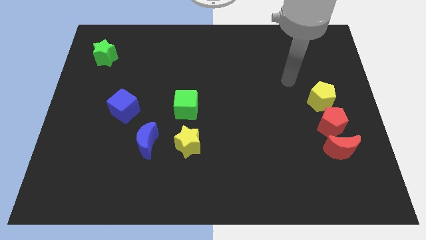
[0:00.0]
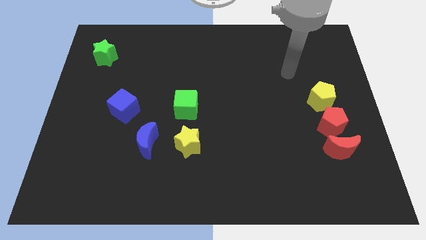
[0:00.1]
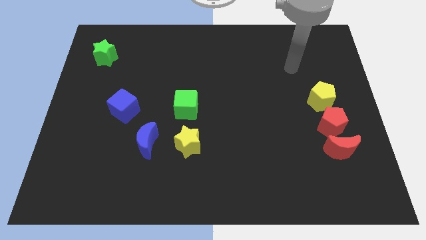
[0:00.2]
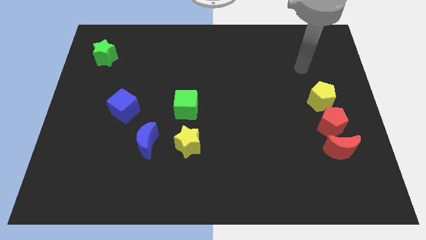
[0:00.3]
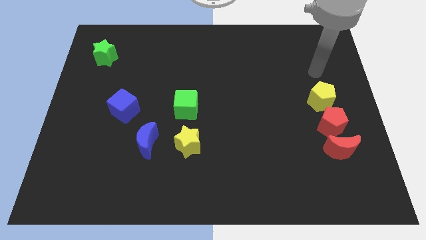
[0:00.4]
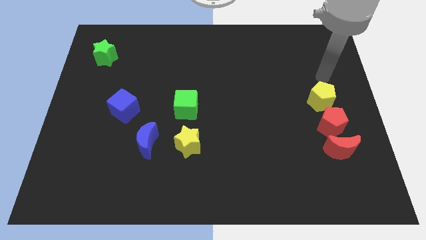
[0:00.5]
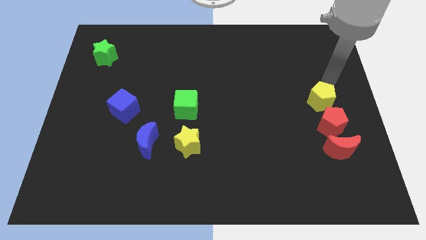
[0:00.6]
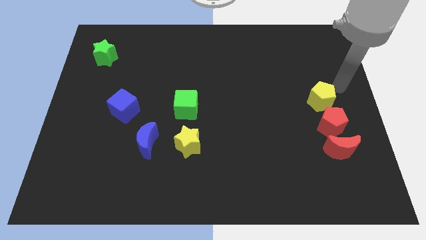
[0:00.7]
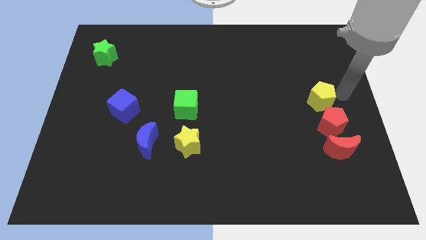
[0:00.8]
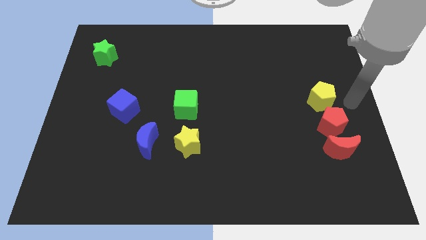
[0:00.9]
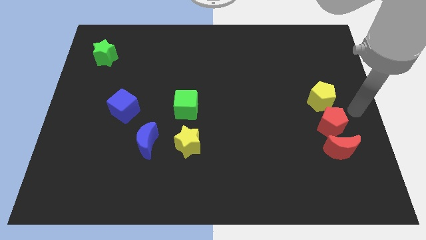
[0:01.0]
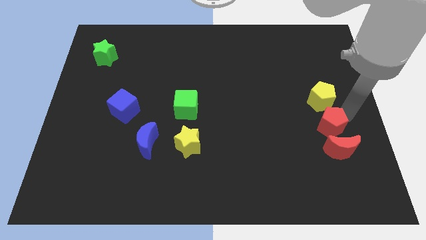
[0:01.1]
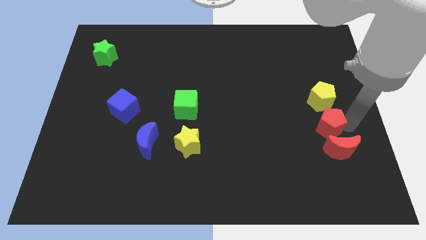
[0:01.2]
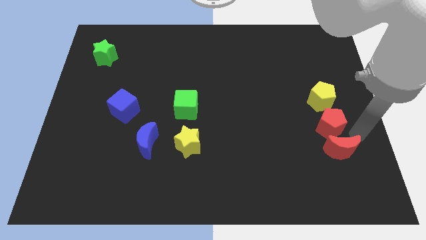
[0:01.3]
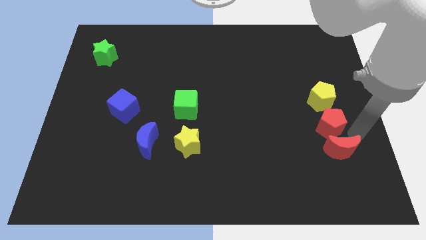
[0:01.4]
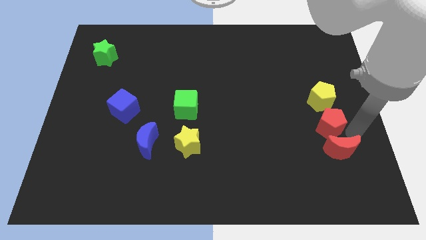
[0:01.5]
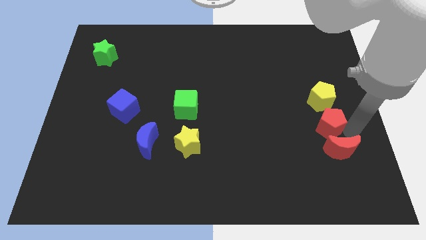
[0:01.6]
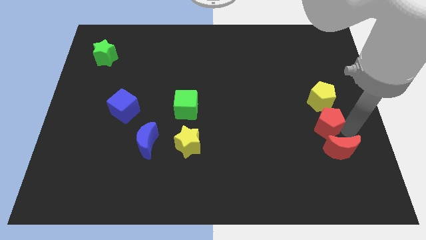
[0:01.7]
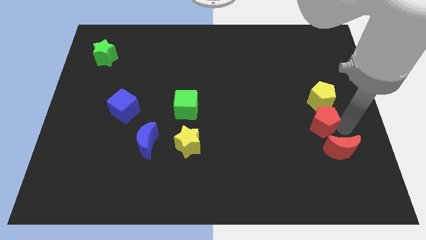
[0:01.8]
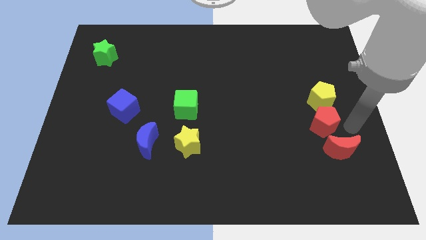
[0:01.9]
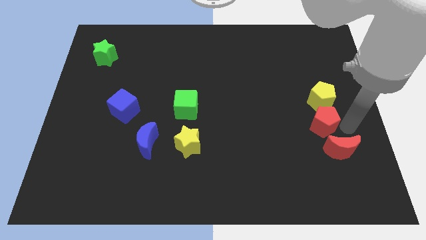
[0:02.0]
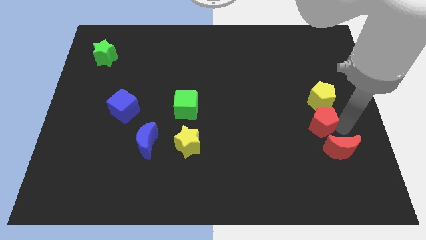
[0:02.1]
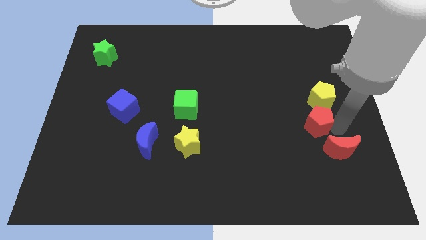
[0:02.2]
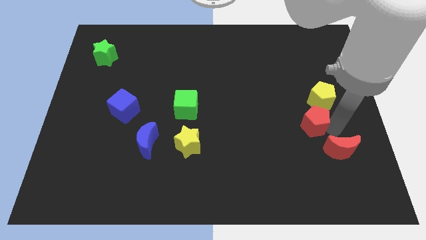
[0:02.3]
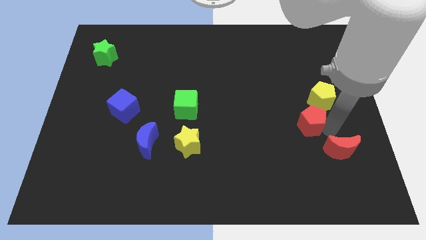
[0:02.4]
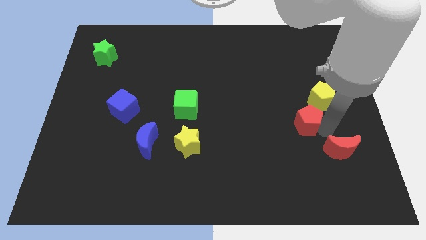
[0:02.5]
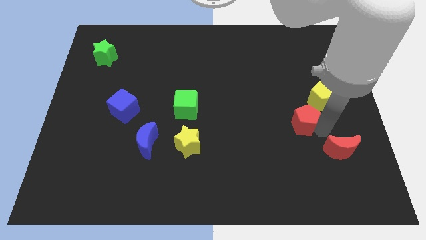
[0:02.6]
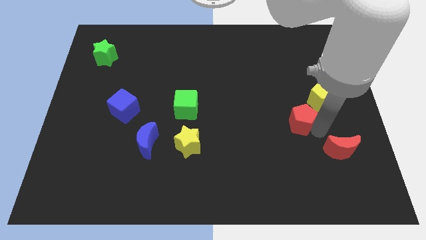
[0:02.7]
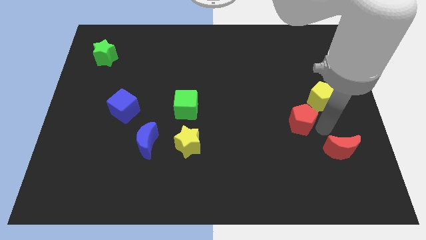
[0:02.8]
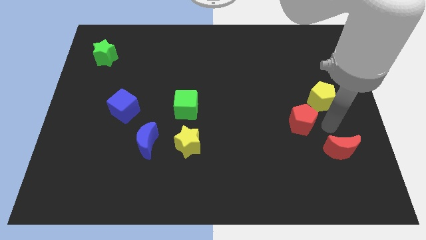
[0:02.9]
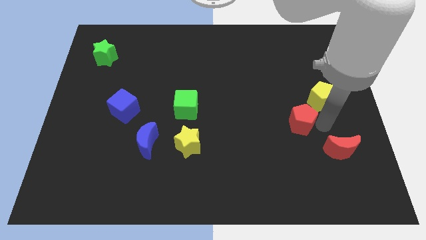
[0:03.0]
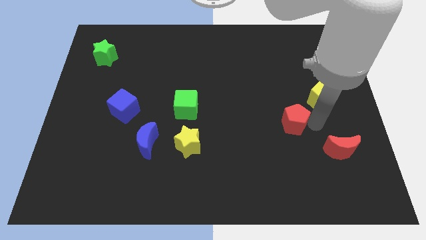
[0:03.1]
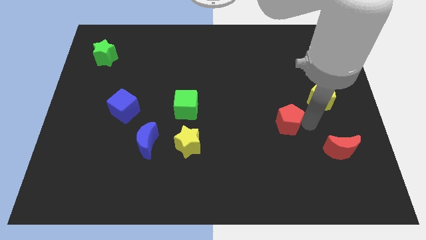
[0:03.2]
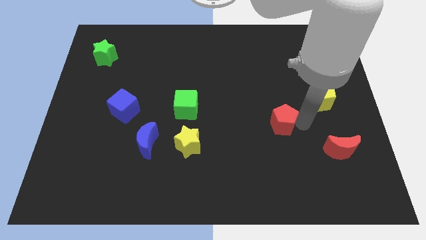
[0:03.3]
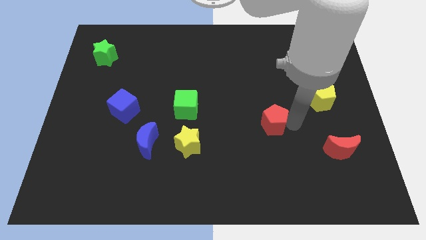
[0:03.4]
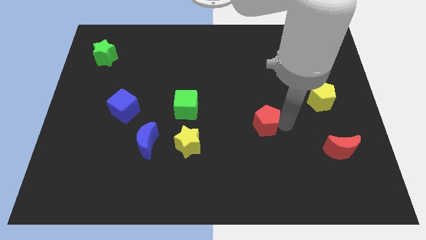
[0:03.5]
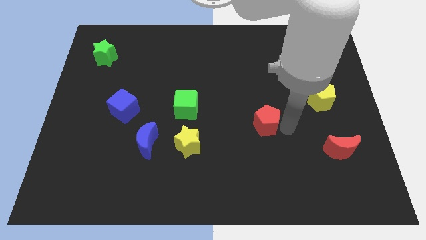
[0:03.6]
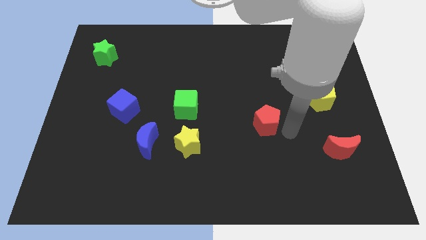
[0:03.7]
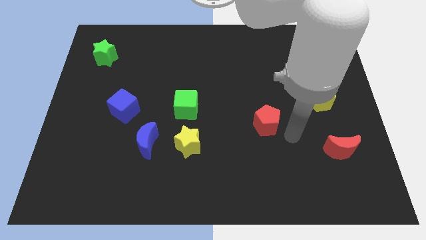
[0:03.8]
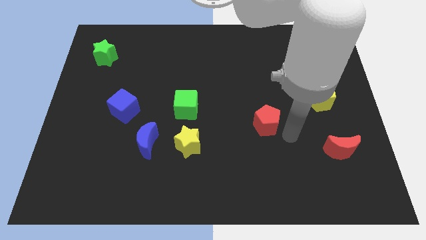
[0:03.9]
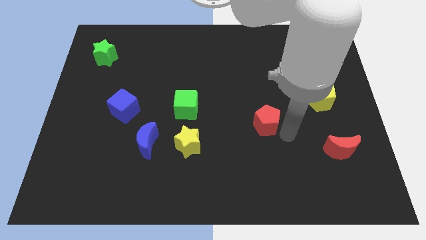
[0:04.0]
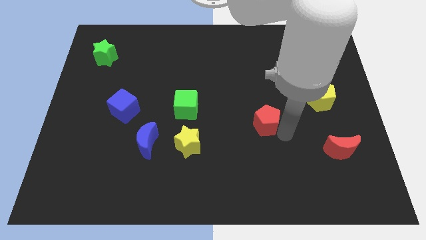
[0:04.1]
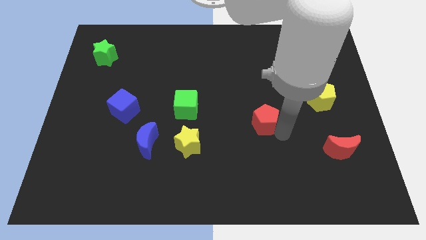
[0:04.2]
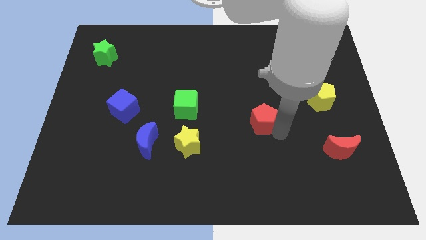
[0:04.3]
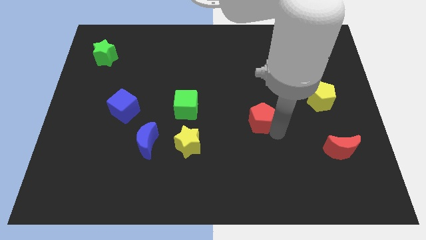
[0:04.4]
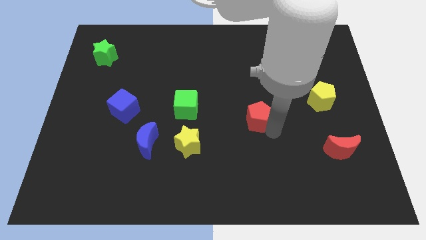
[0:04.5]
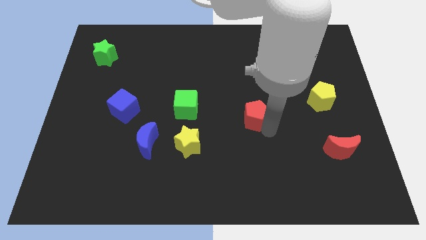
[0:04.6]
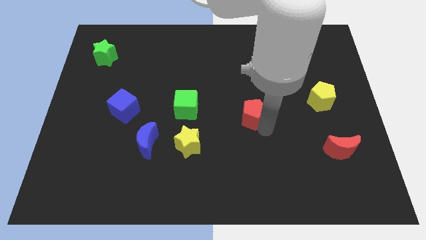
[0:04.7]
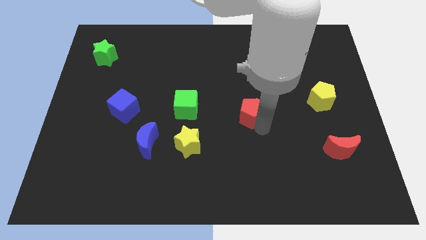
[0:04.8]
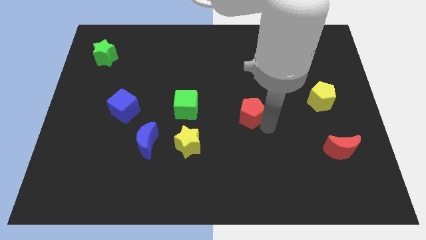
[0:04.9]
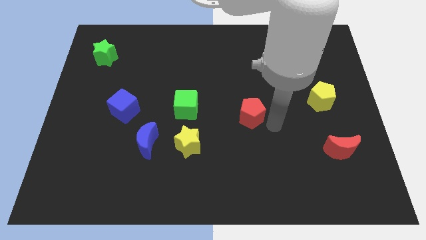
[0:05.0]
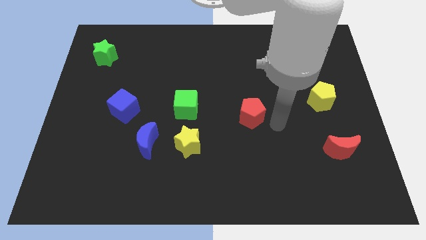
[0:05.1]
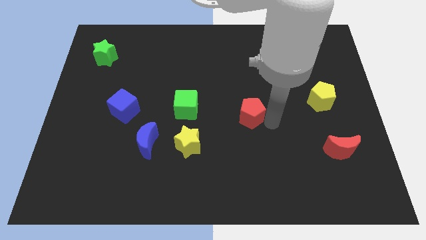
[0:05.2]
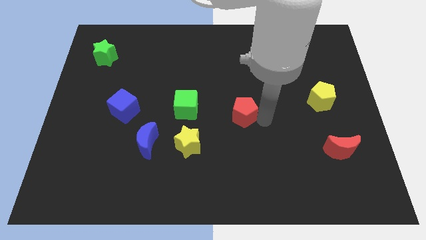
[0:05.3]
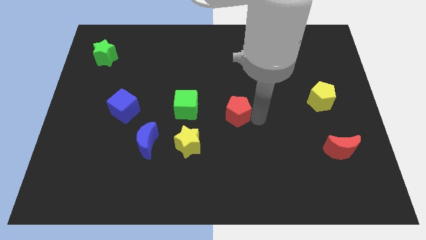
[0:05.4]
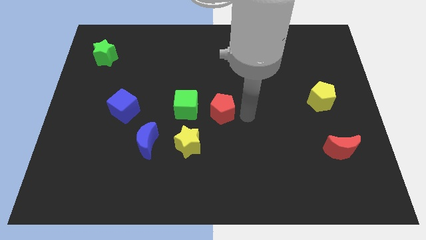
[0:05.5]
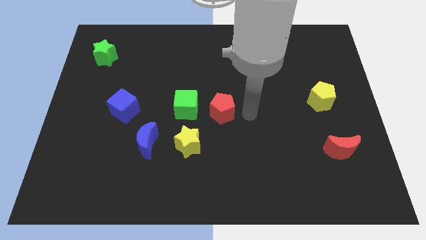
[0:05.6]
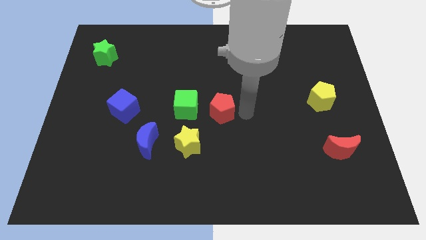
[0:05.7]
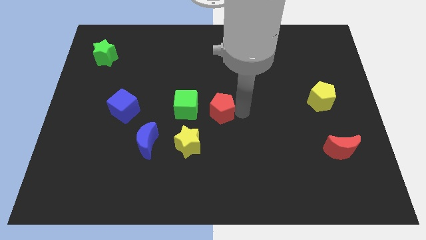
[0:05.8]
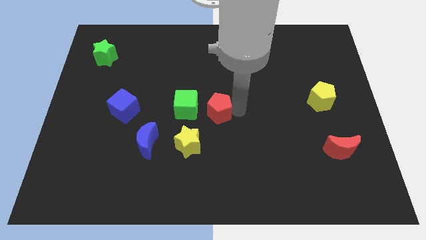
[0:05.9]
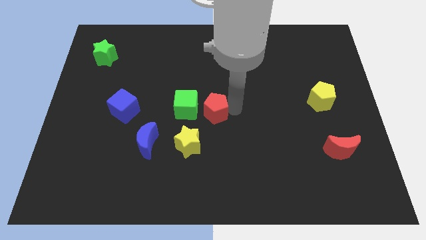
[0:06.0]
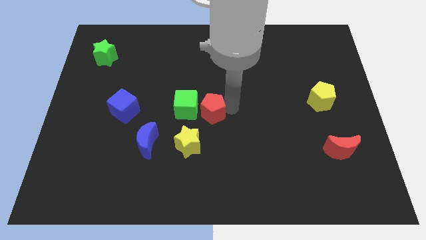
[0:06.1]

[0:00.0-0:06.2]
put the red pentagon next to the green cube

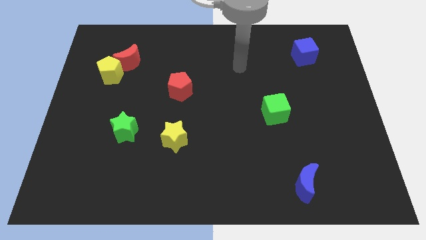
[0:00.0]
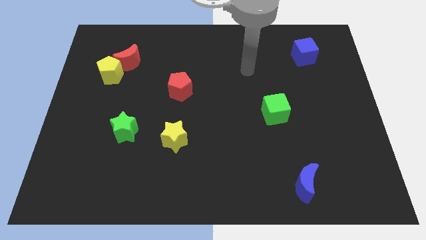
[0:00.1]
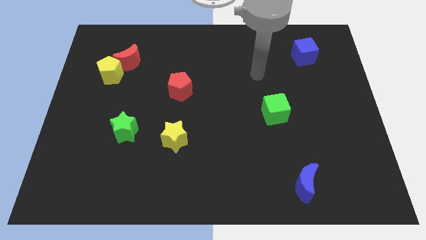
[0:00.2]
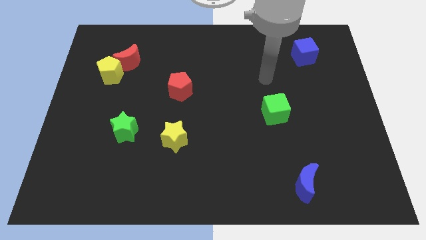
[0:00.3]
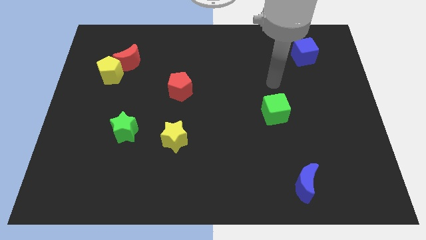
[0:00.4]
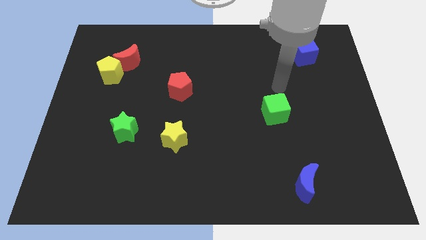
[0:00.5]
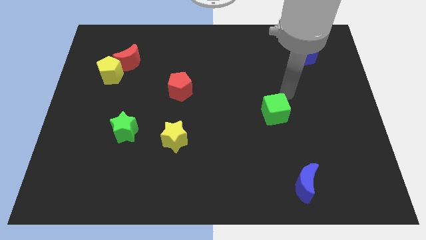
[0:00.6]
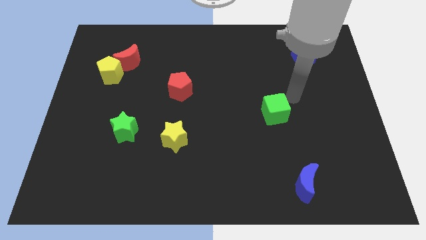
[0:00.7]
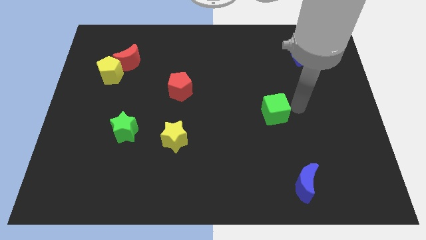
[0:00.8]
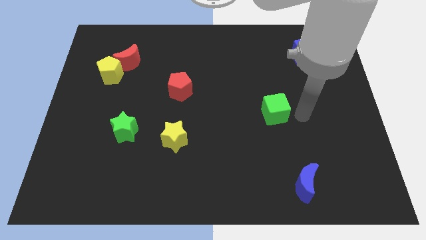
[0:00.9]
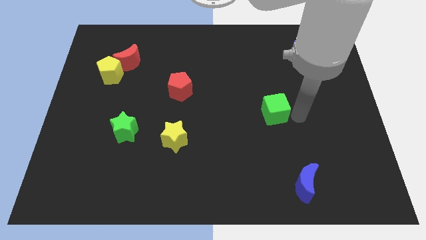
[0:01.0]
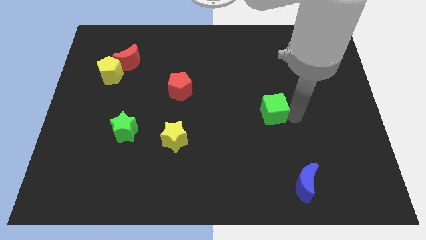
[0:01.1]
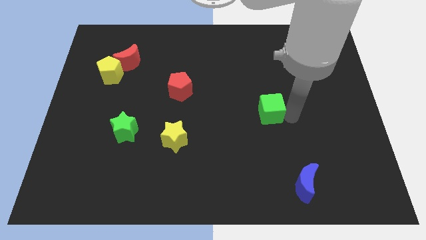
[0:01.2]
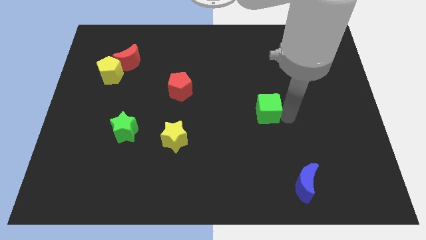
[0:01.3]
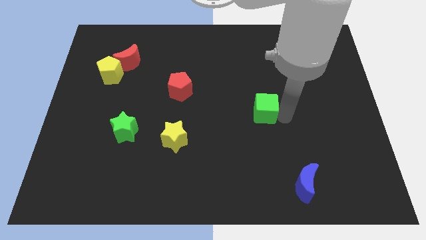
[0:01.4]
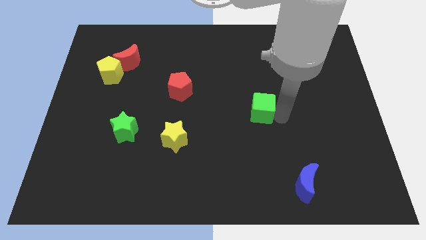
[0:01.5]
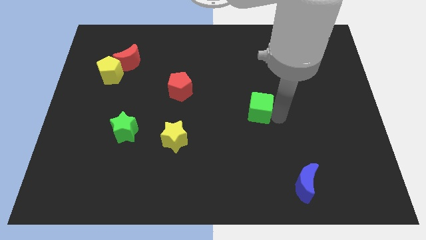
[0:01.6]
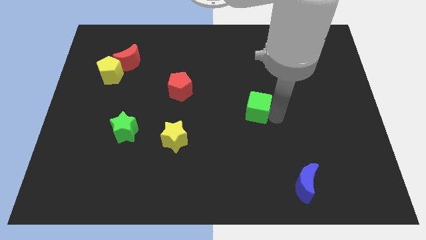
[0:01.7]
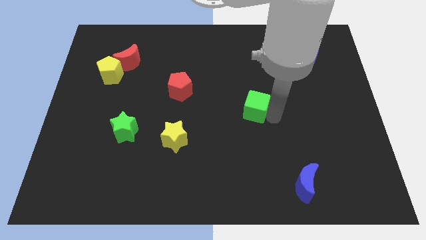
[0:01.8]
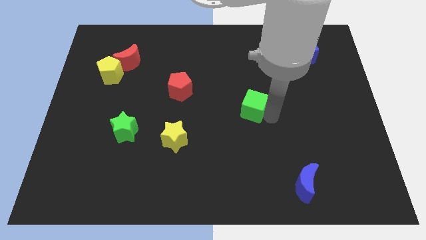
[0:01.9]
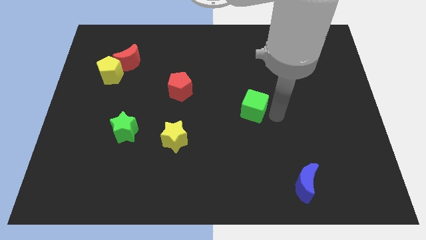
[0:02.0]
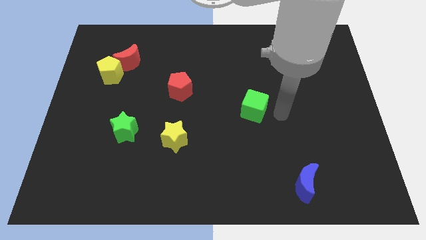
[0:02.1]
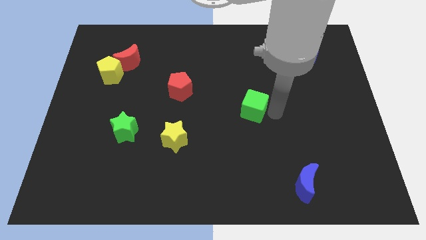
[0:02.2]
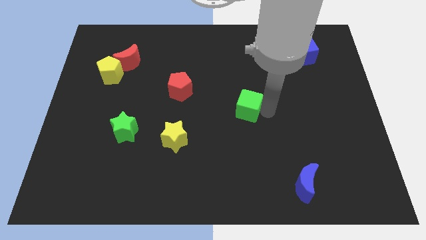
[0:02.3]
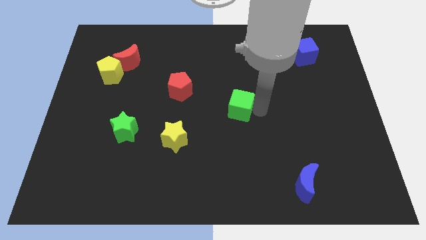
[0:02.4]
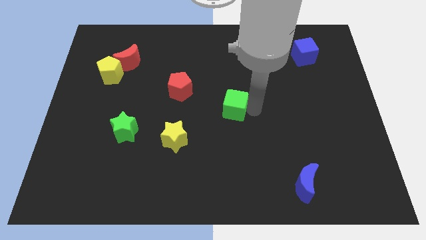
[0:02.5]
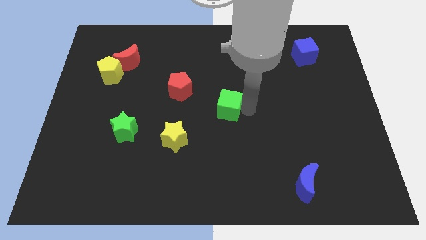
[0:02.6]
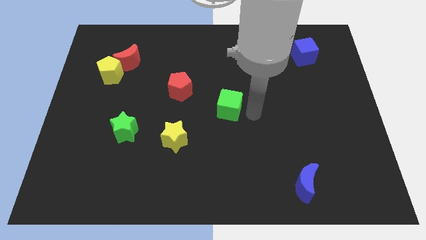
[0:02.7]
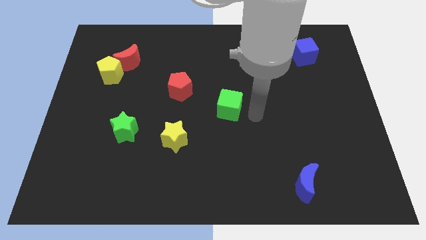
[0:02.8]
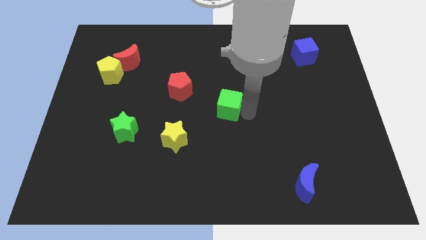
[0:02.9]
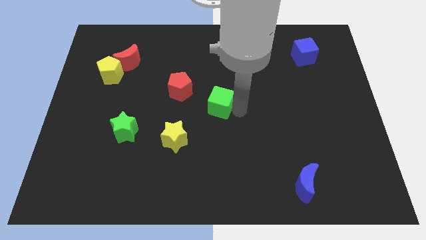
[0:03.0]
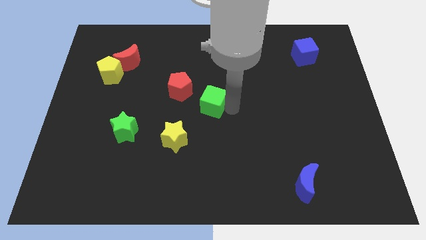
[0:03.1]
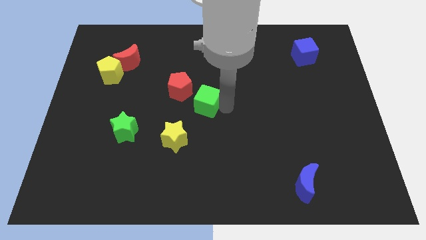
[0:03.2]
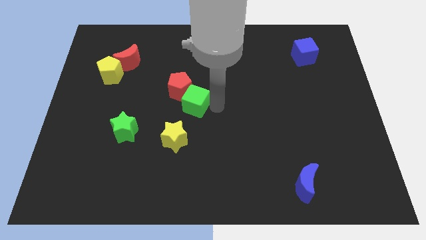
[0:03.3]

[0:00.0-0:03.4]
push the green cube to the red pentagon
